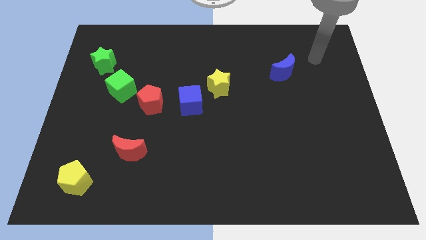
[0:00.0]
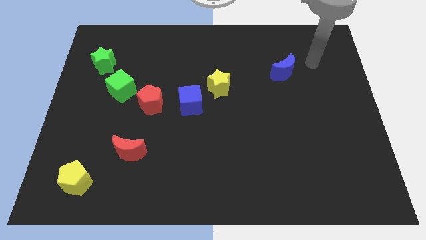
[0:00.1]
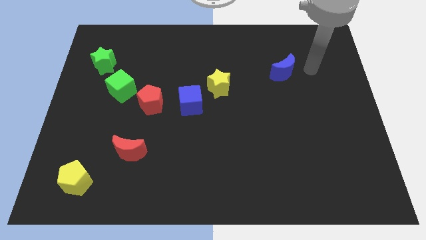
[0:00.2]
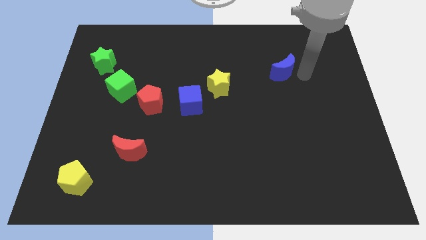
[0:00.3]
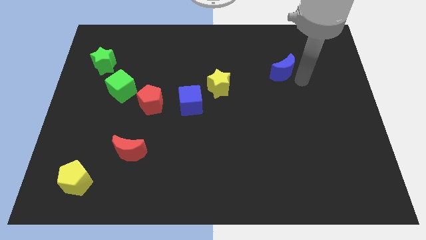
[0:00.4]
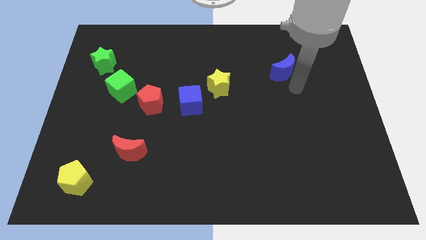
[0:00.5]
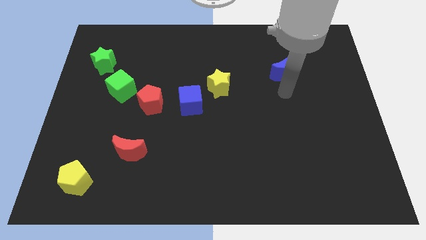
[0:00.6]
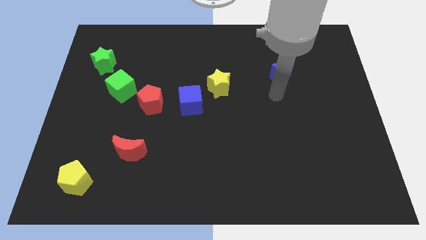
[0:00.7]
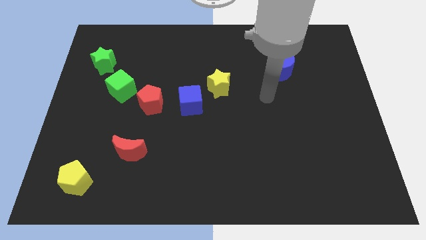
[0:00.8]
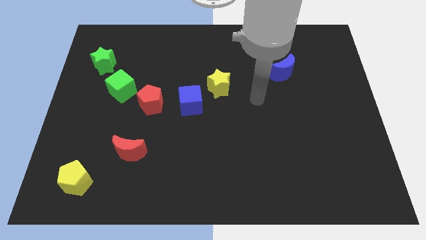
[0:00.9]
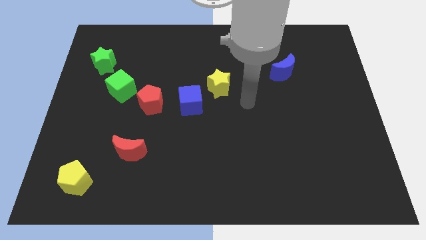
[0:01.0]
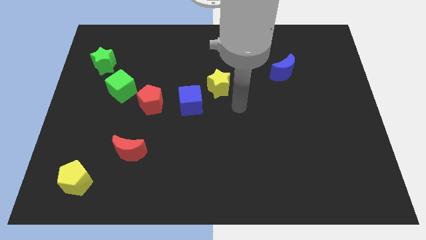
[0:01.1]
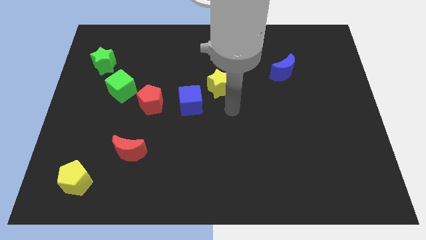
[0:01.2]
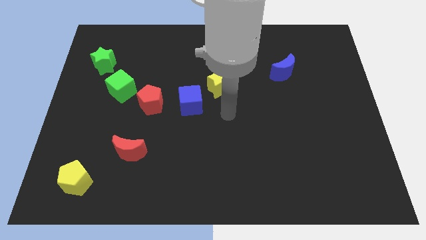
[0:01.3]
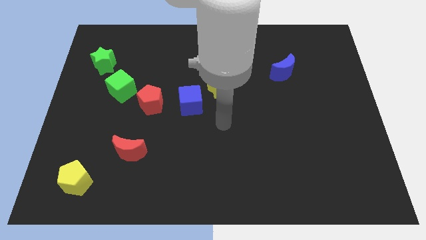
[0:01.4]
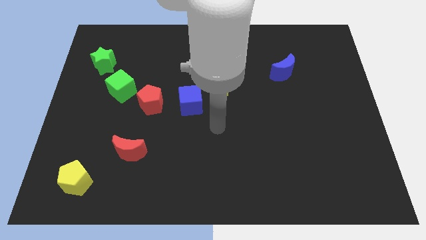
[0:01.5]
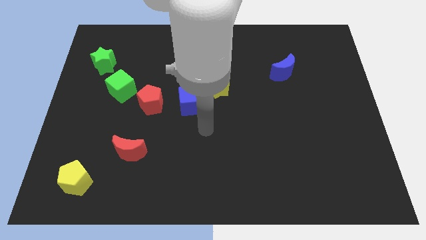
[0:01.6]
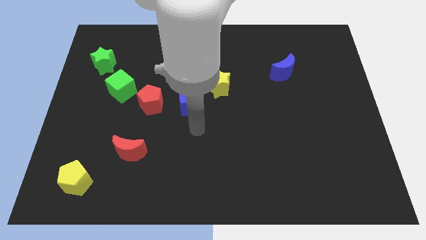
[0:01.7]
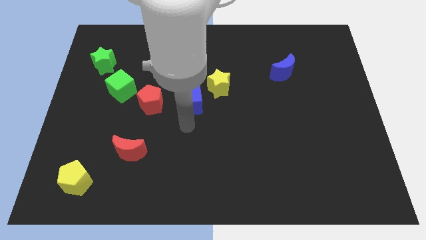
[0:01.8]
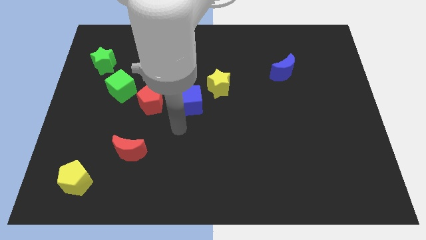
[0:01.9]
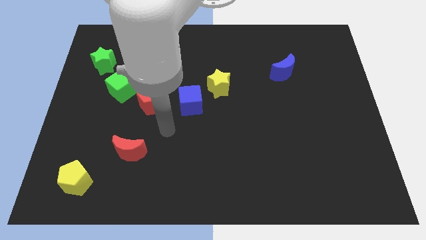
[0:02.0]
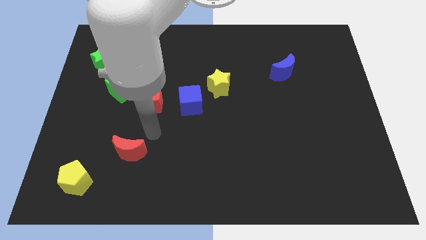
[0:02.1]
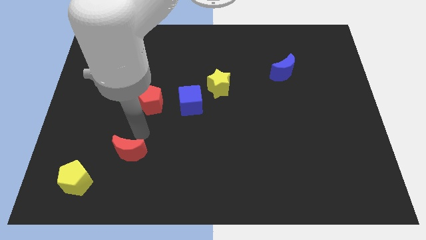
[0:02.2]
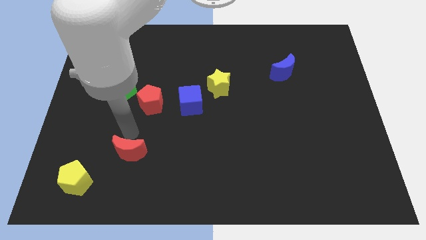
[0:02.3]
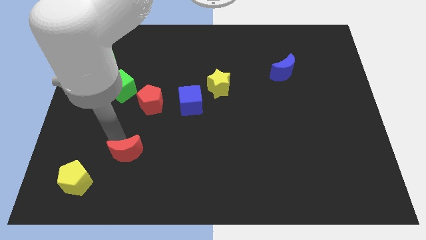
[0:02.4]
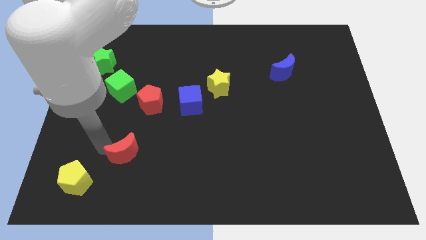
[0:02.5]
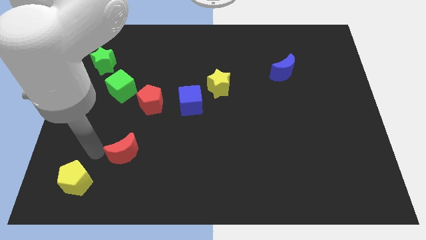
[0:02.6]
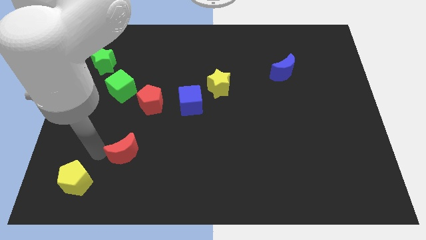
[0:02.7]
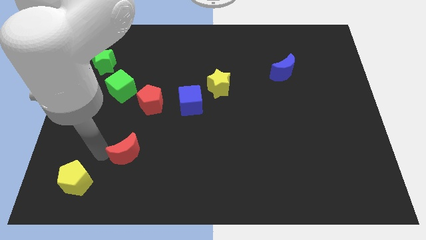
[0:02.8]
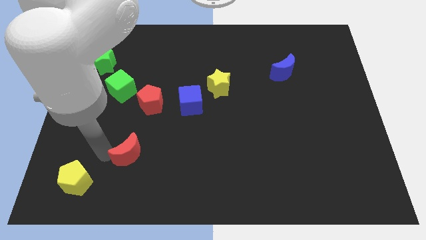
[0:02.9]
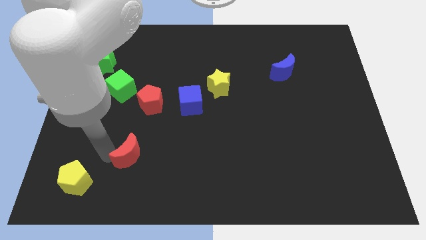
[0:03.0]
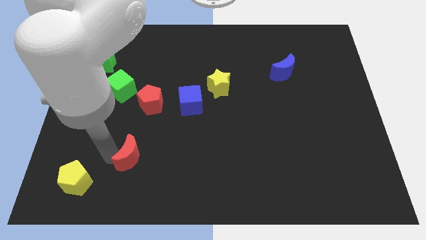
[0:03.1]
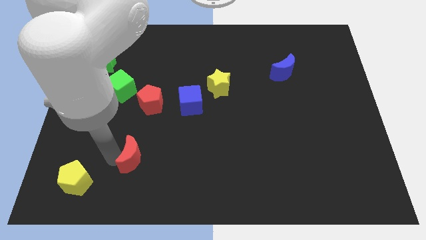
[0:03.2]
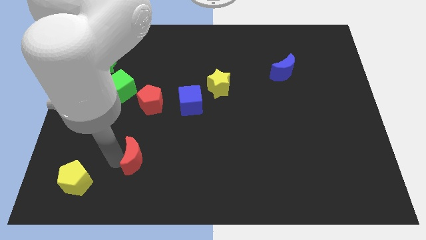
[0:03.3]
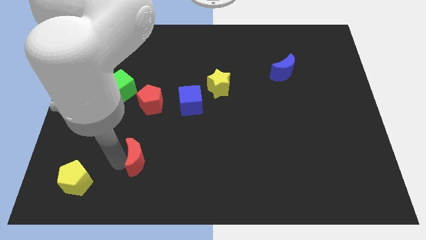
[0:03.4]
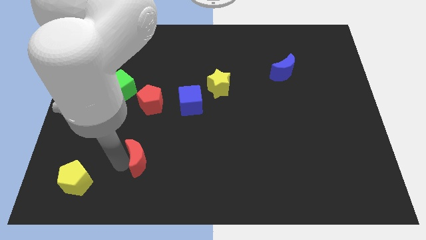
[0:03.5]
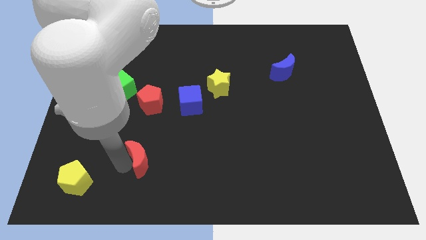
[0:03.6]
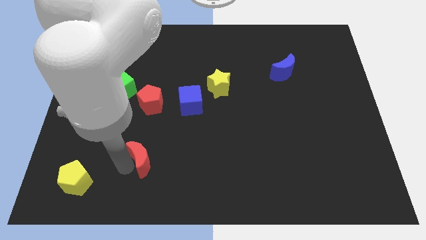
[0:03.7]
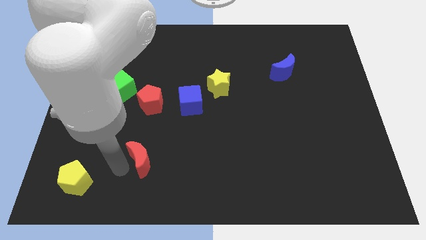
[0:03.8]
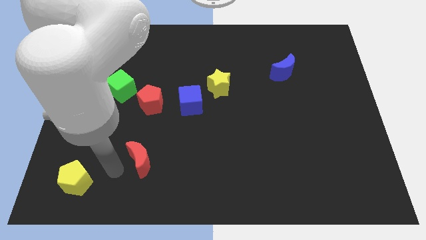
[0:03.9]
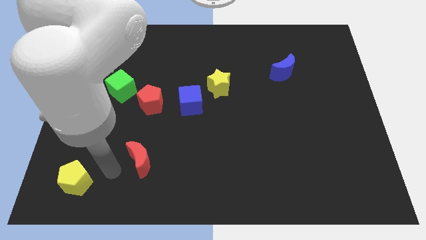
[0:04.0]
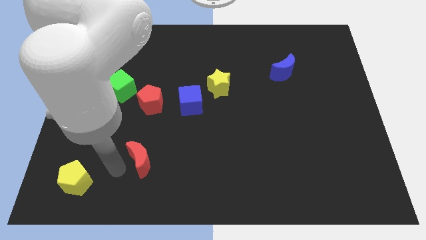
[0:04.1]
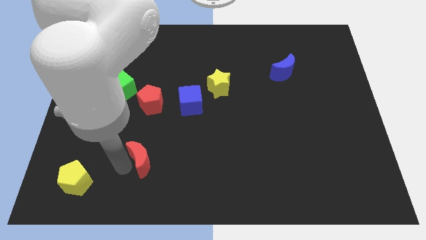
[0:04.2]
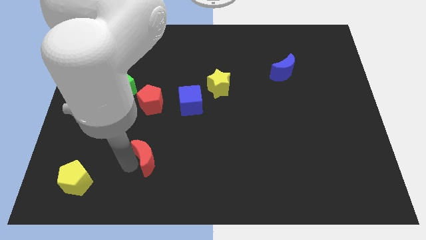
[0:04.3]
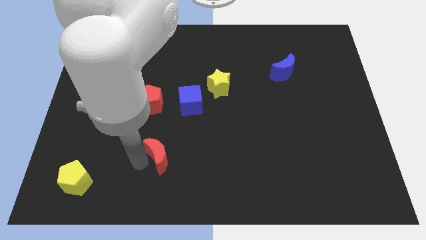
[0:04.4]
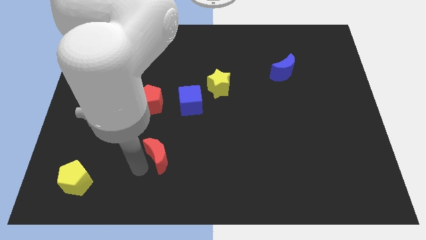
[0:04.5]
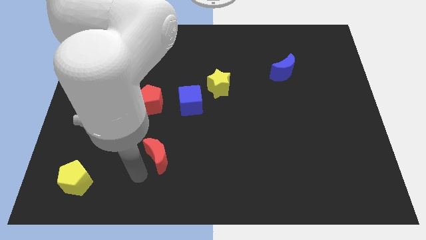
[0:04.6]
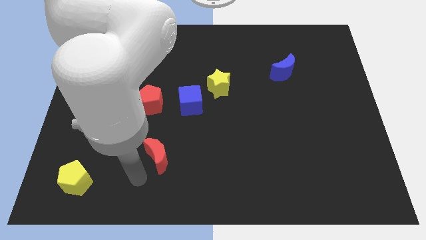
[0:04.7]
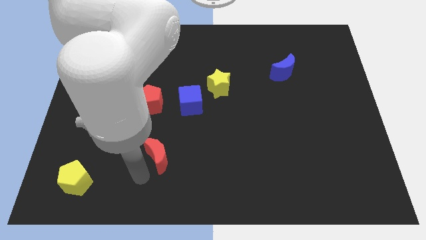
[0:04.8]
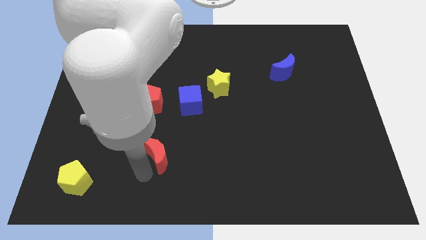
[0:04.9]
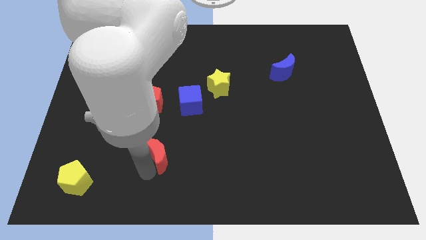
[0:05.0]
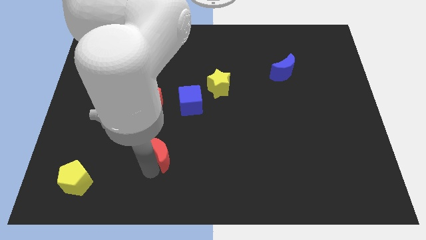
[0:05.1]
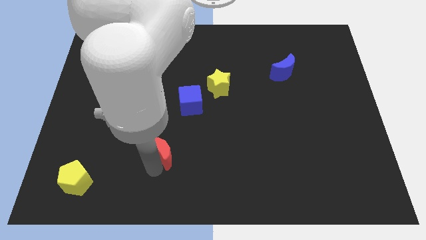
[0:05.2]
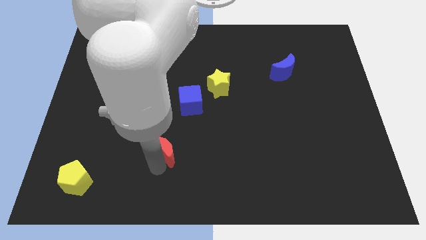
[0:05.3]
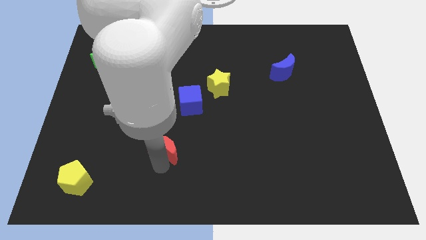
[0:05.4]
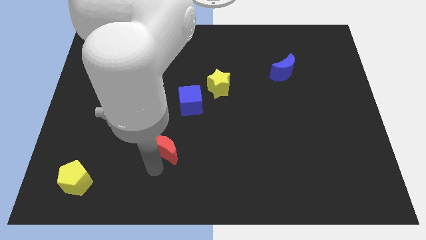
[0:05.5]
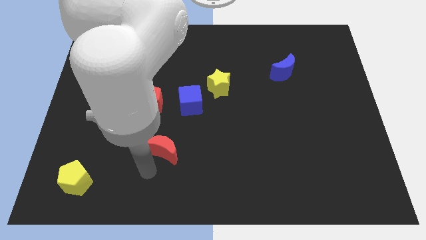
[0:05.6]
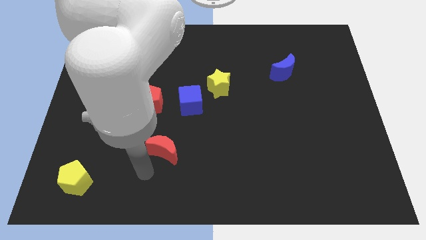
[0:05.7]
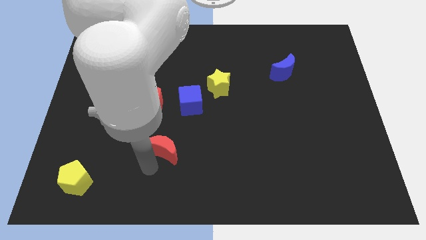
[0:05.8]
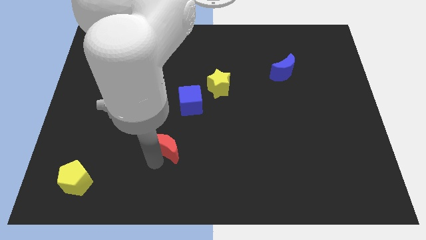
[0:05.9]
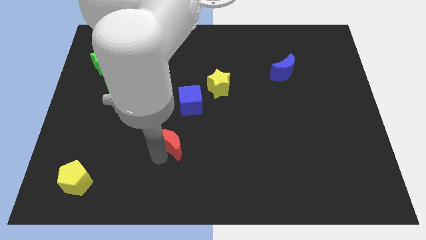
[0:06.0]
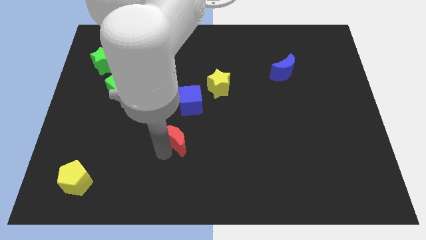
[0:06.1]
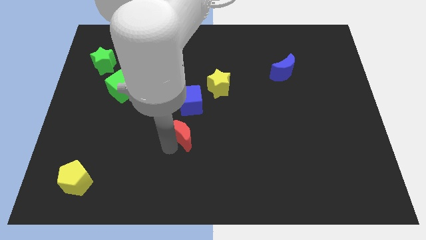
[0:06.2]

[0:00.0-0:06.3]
put the red moon to the middle

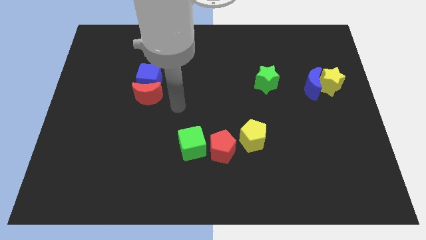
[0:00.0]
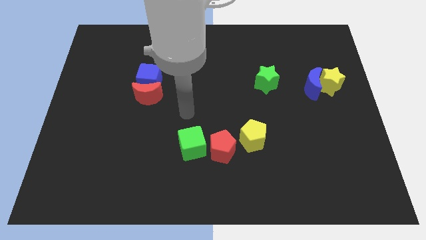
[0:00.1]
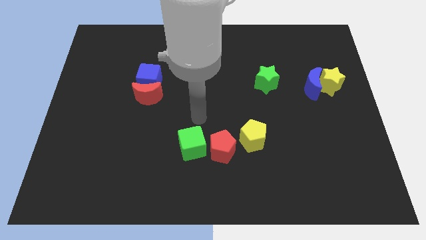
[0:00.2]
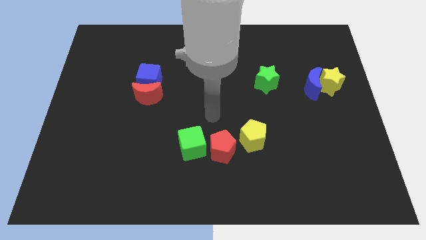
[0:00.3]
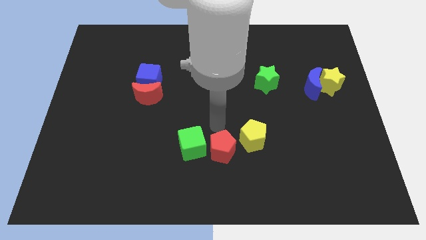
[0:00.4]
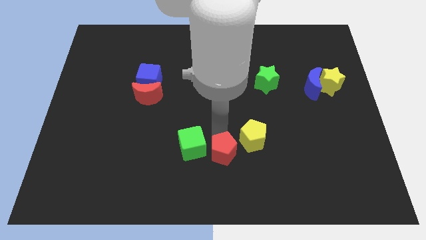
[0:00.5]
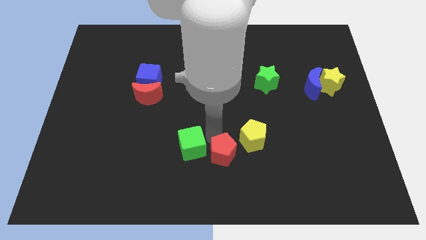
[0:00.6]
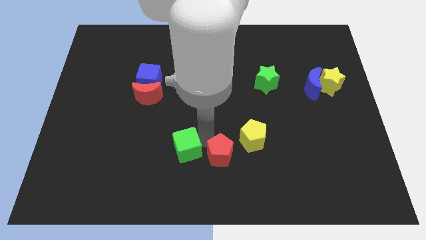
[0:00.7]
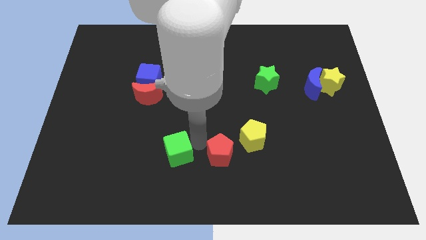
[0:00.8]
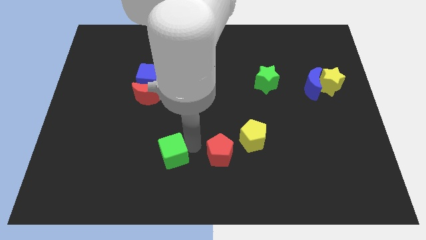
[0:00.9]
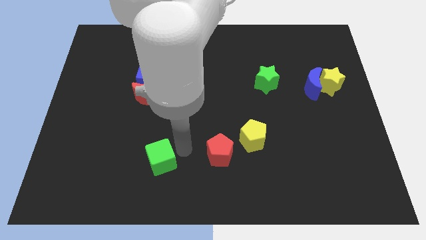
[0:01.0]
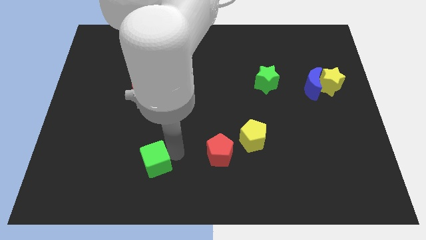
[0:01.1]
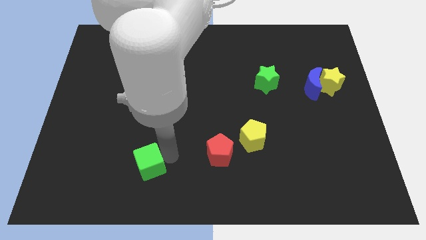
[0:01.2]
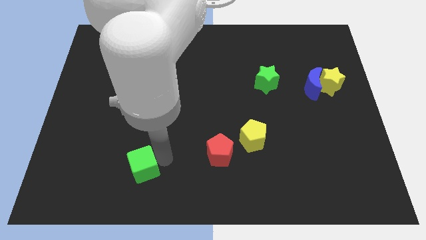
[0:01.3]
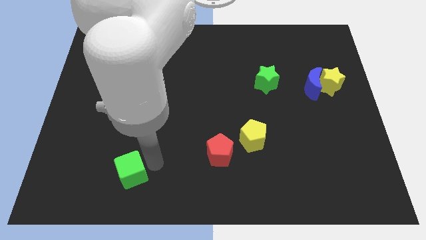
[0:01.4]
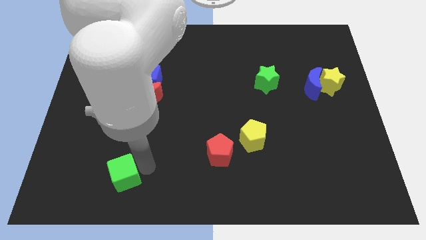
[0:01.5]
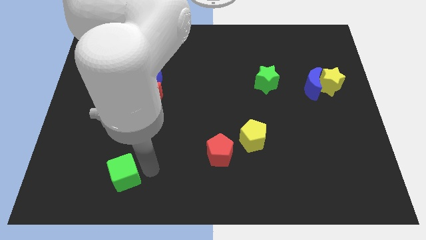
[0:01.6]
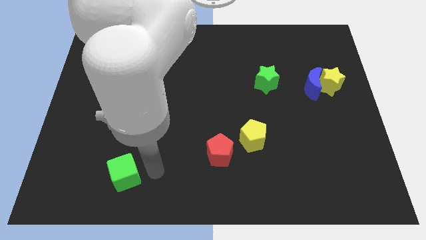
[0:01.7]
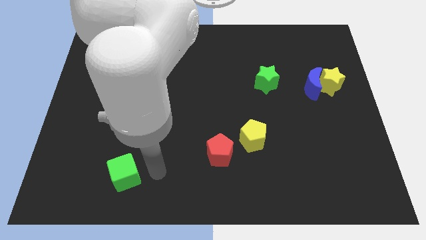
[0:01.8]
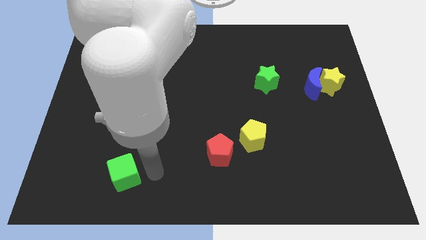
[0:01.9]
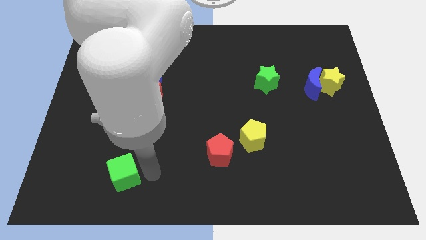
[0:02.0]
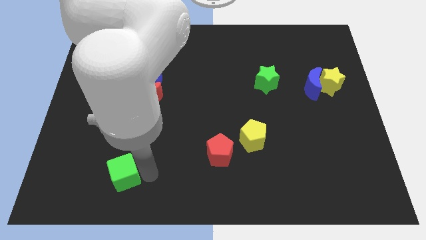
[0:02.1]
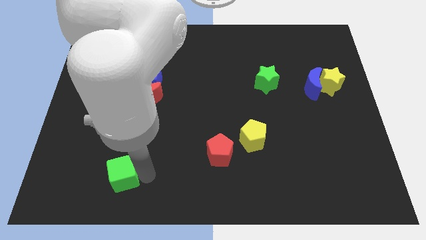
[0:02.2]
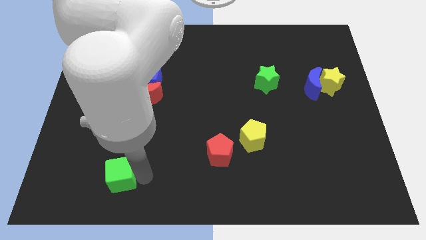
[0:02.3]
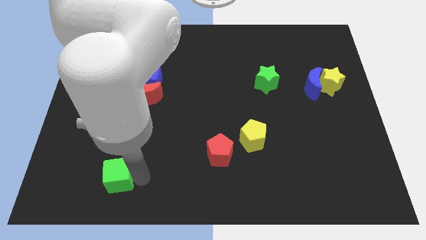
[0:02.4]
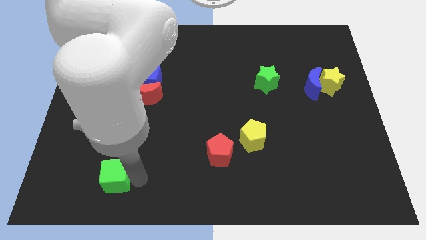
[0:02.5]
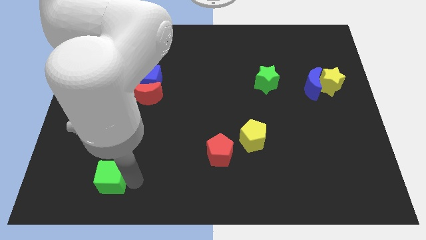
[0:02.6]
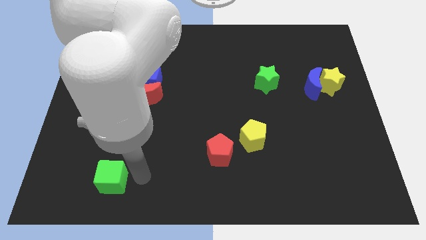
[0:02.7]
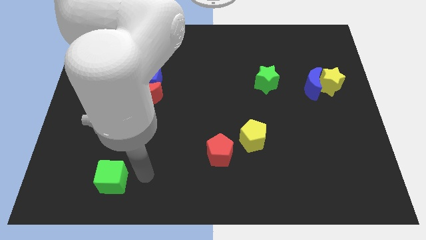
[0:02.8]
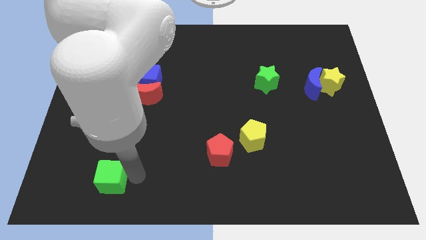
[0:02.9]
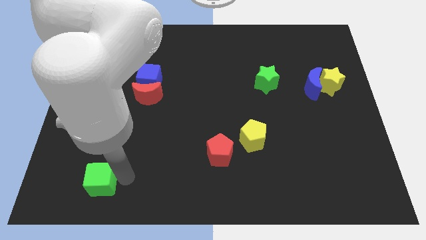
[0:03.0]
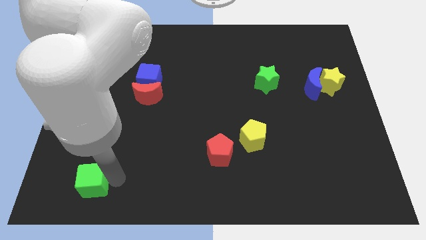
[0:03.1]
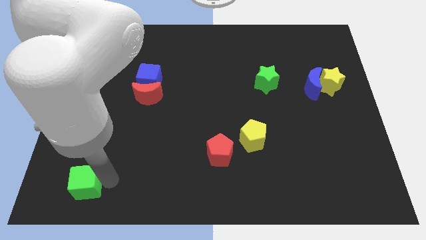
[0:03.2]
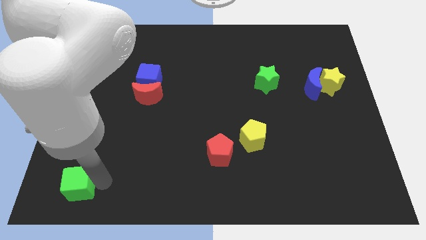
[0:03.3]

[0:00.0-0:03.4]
push the green cube to the bottom left
